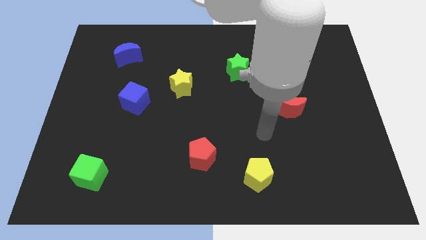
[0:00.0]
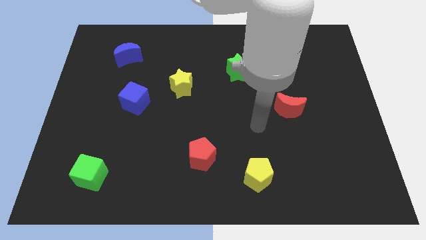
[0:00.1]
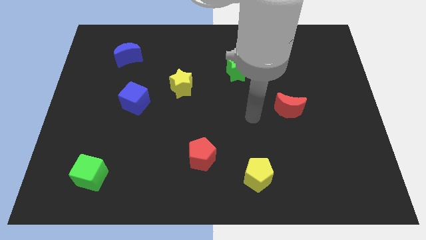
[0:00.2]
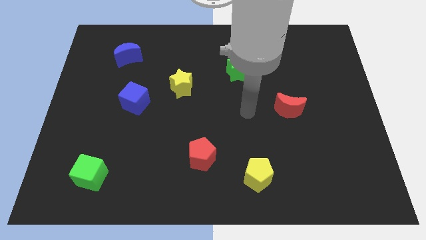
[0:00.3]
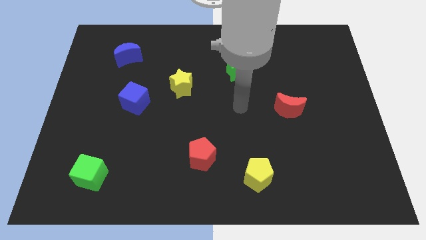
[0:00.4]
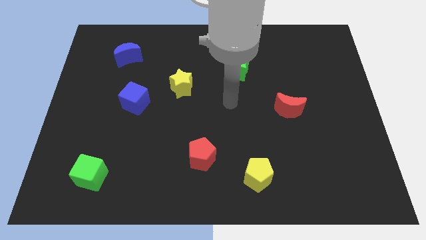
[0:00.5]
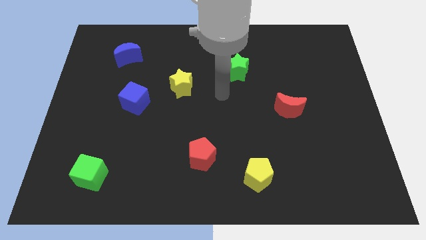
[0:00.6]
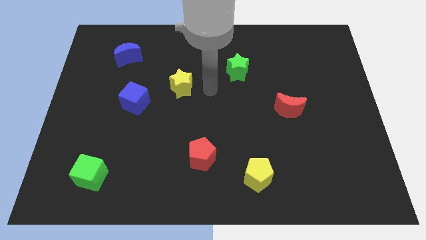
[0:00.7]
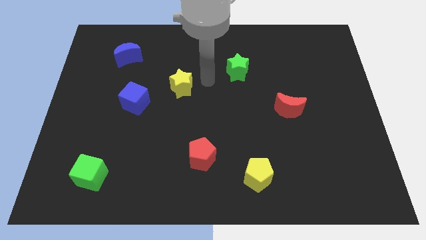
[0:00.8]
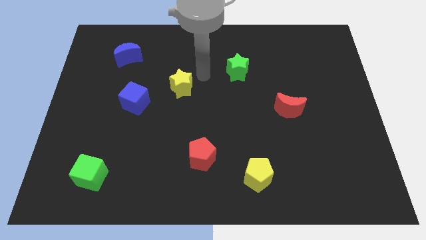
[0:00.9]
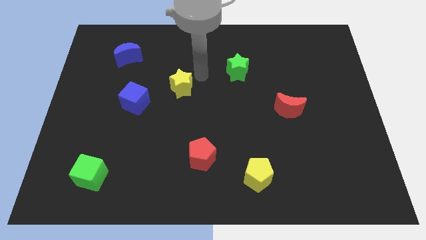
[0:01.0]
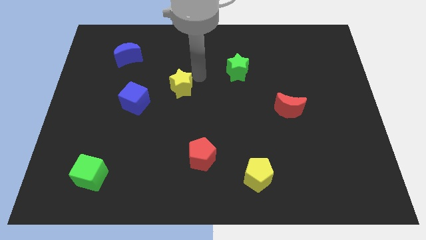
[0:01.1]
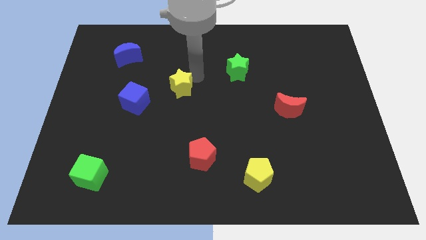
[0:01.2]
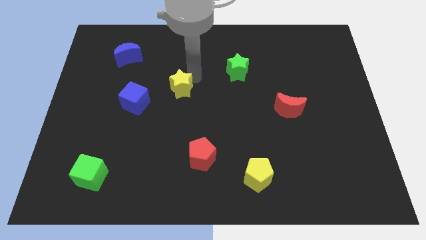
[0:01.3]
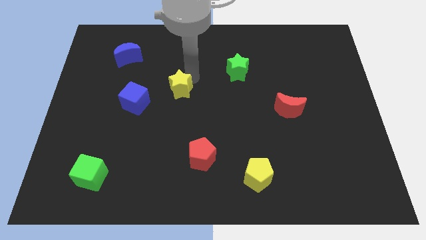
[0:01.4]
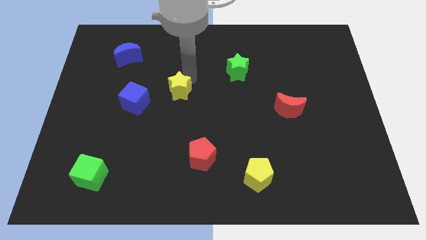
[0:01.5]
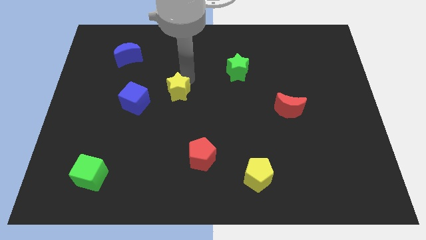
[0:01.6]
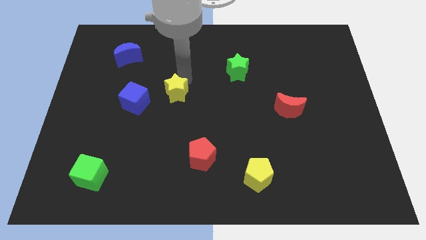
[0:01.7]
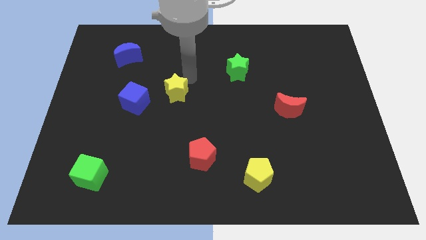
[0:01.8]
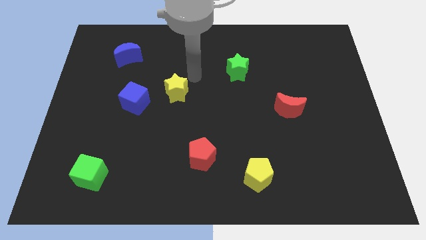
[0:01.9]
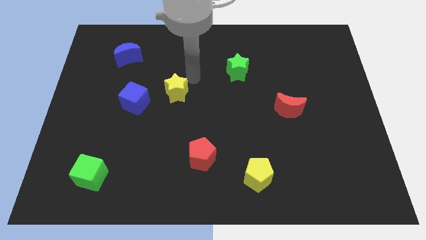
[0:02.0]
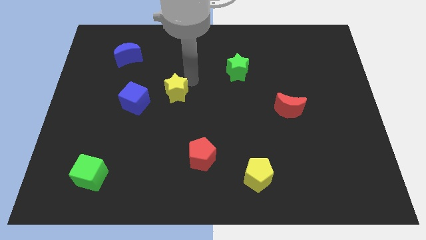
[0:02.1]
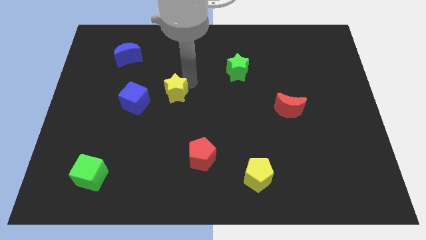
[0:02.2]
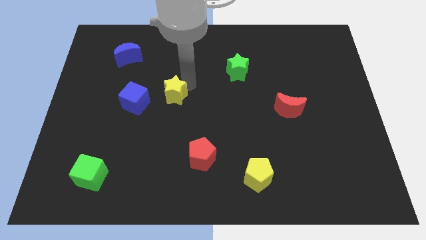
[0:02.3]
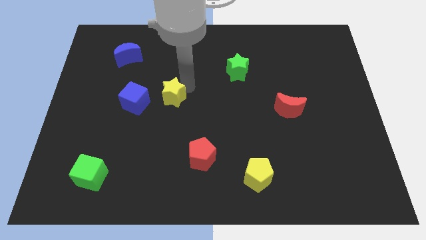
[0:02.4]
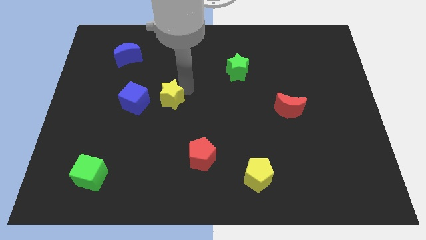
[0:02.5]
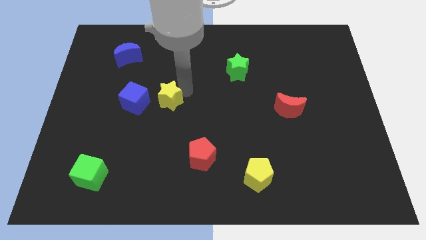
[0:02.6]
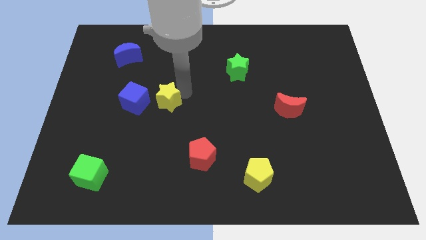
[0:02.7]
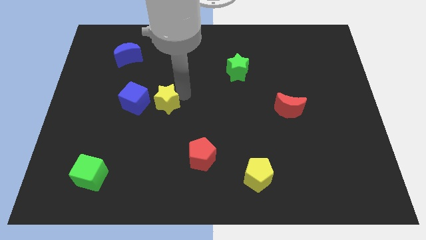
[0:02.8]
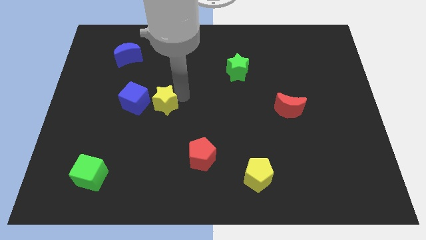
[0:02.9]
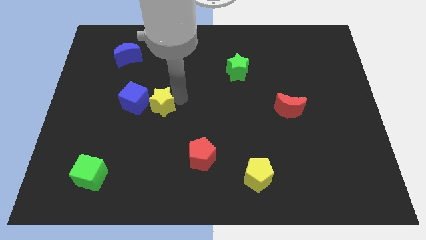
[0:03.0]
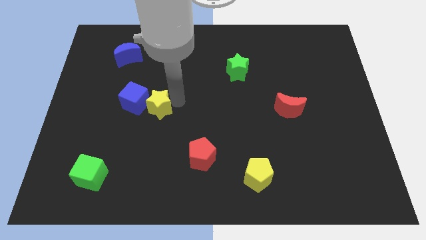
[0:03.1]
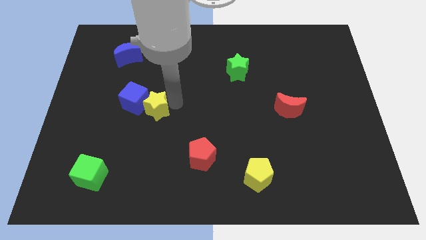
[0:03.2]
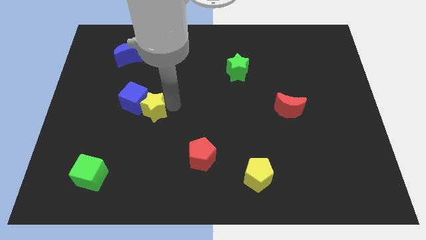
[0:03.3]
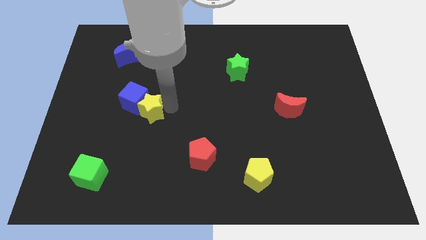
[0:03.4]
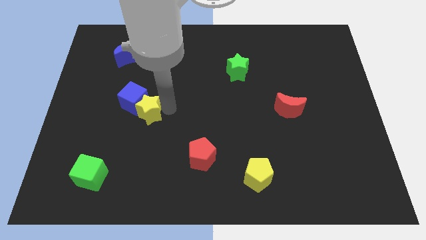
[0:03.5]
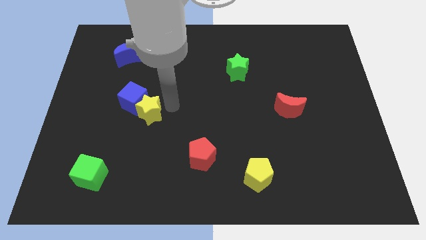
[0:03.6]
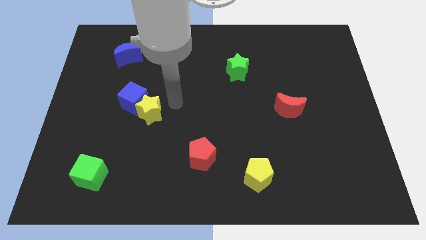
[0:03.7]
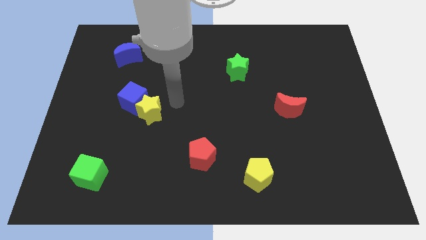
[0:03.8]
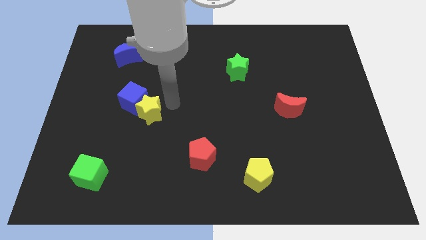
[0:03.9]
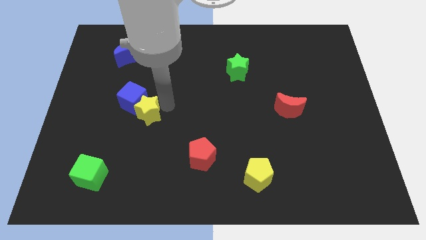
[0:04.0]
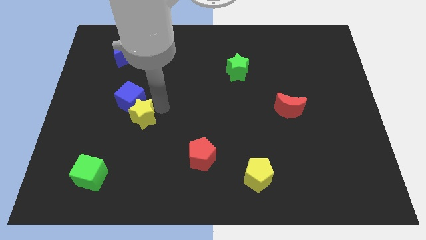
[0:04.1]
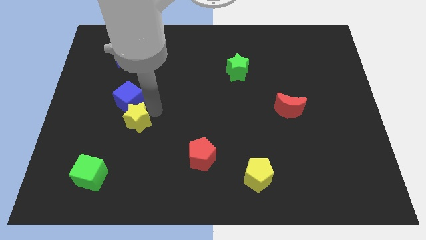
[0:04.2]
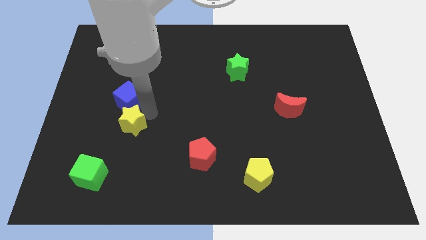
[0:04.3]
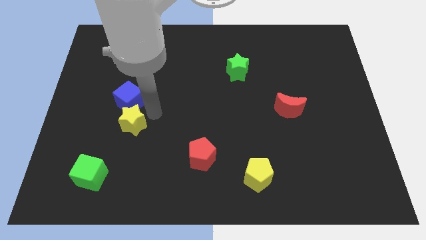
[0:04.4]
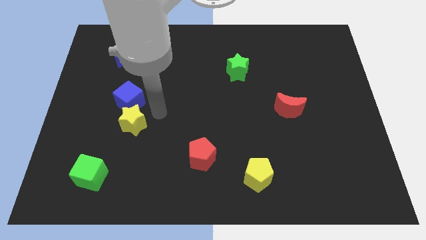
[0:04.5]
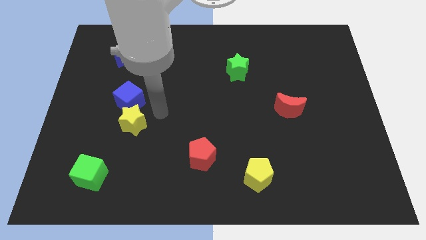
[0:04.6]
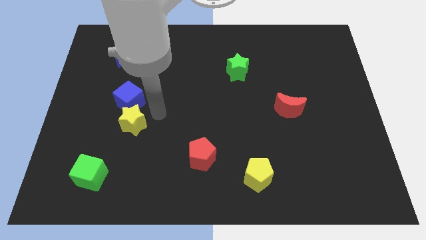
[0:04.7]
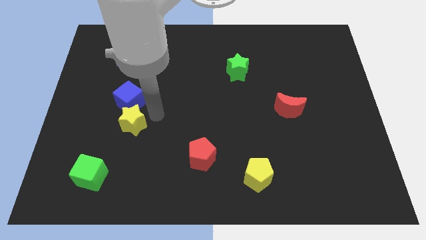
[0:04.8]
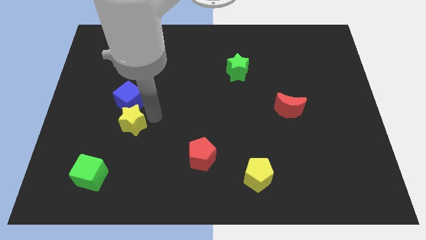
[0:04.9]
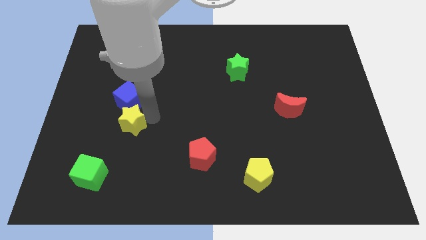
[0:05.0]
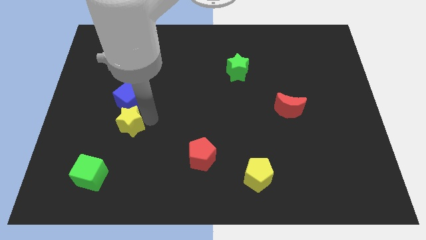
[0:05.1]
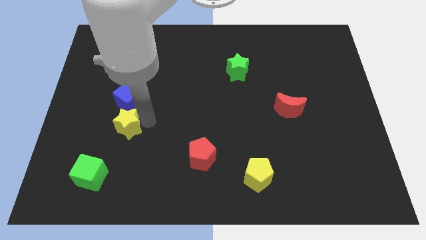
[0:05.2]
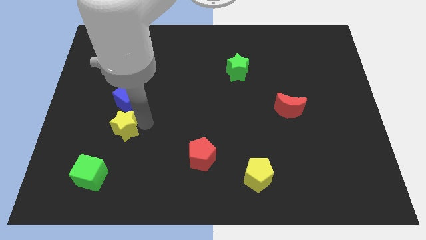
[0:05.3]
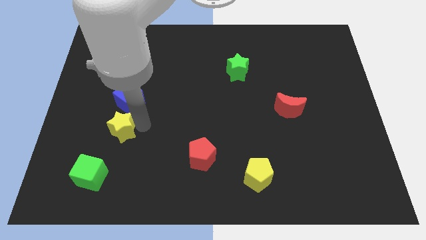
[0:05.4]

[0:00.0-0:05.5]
push the yellow star to the top side of the green cube

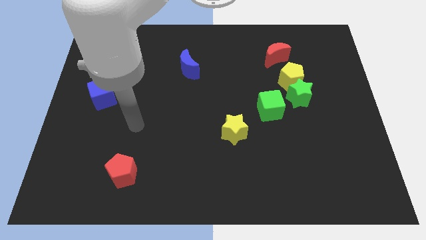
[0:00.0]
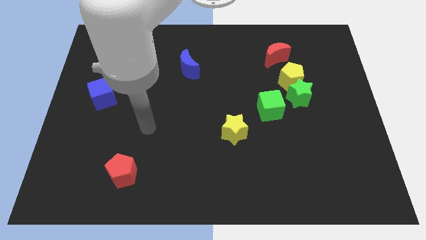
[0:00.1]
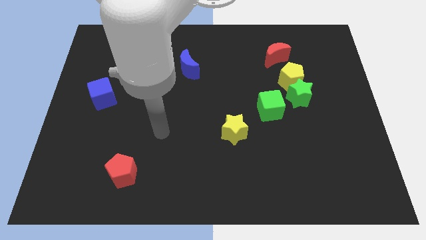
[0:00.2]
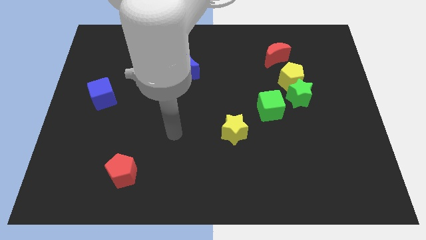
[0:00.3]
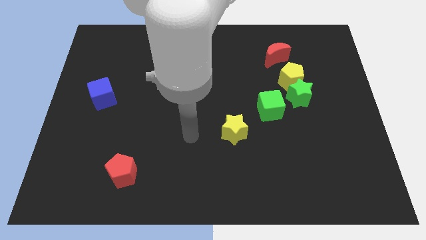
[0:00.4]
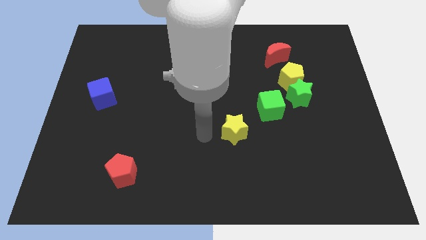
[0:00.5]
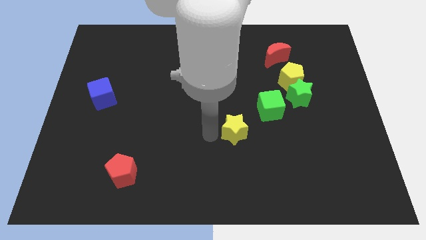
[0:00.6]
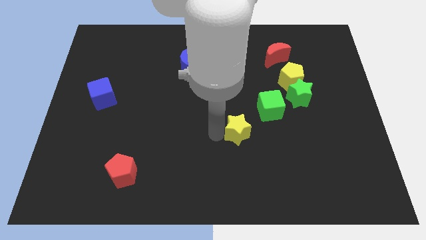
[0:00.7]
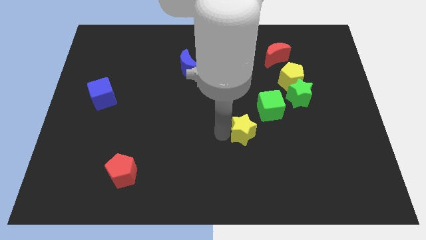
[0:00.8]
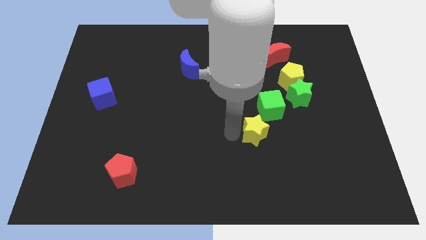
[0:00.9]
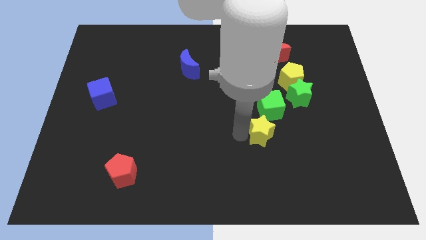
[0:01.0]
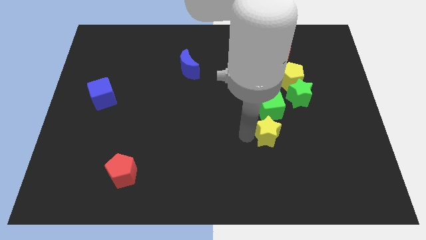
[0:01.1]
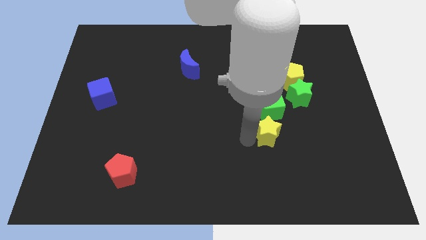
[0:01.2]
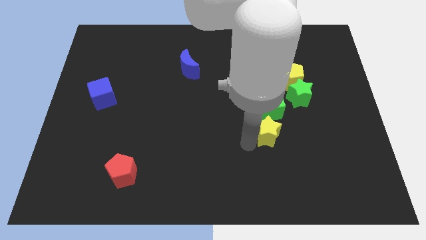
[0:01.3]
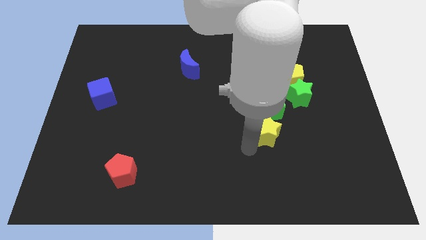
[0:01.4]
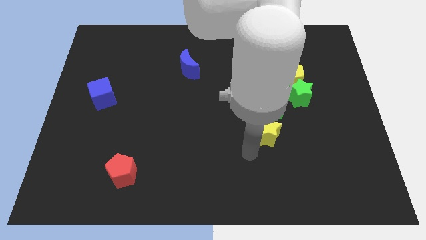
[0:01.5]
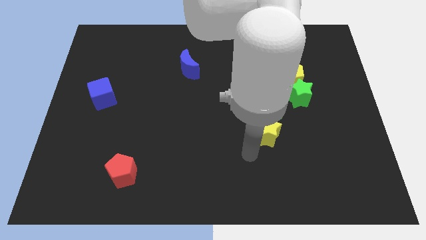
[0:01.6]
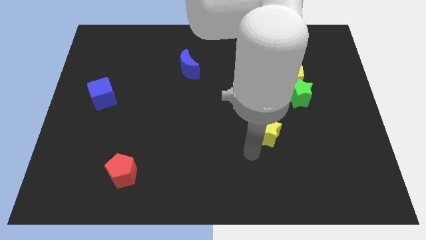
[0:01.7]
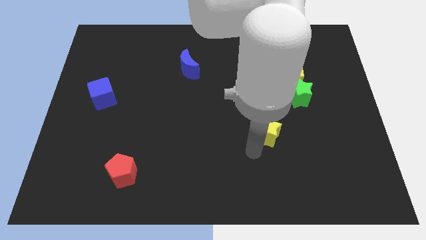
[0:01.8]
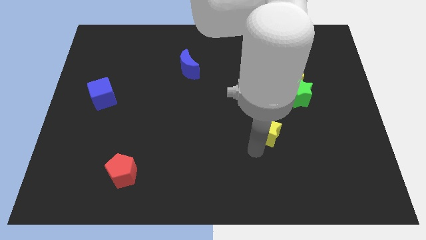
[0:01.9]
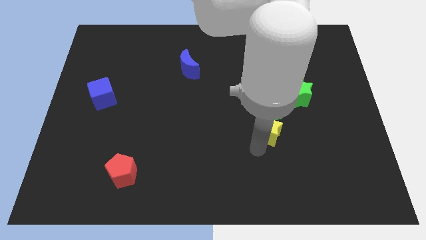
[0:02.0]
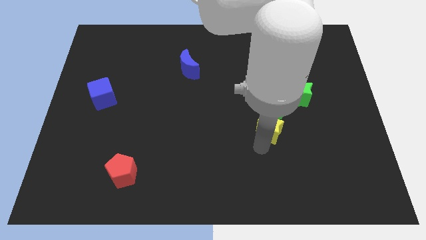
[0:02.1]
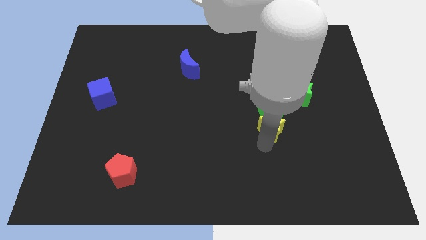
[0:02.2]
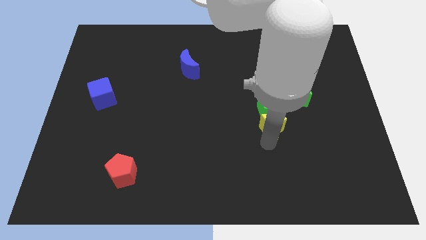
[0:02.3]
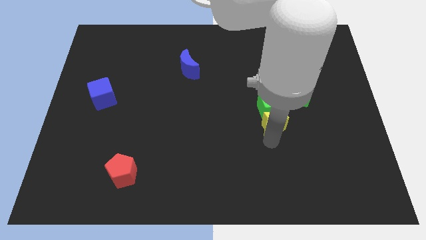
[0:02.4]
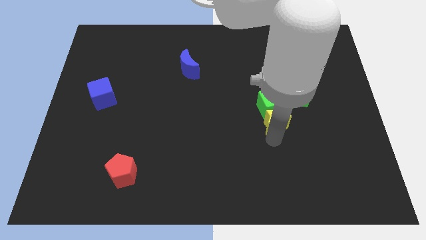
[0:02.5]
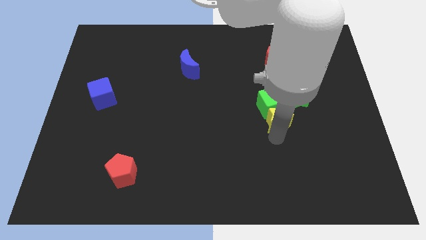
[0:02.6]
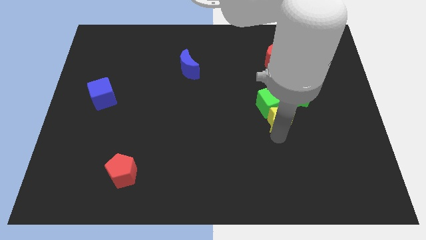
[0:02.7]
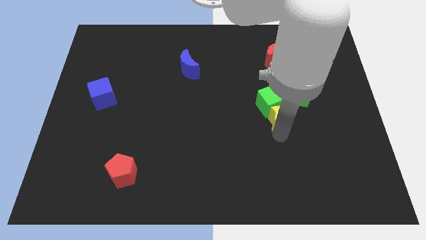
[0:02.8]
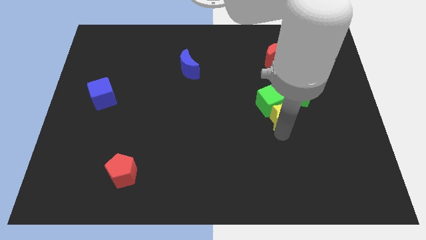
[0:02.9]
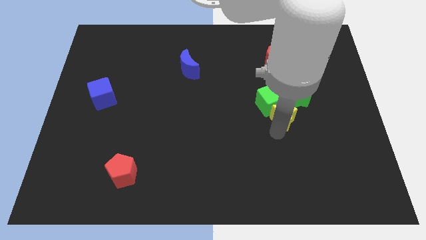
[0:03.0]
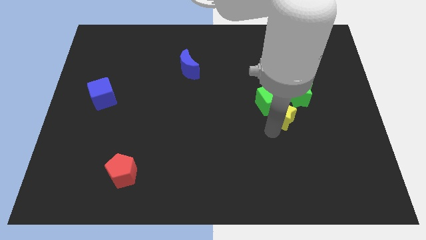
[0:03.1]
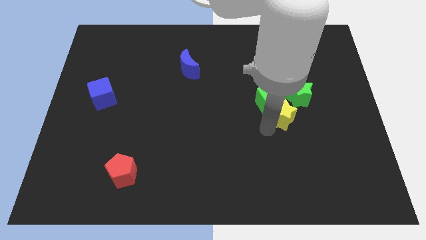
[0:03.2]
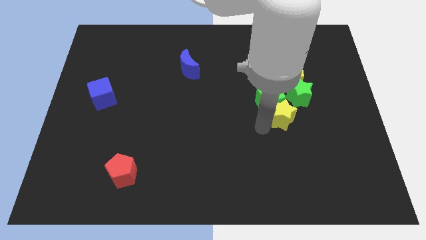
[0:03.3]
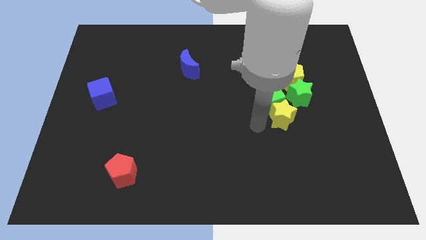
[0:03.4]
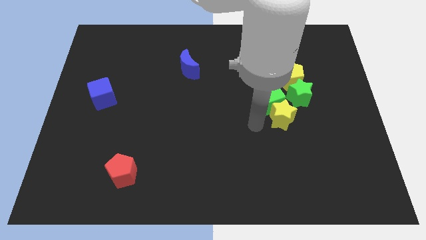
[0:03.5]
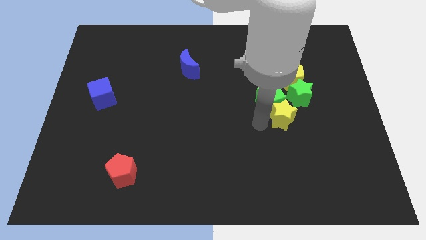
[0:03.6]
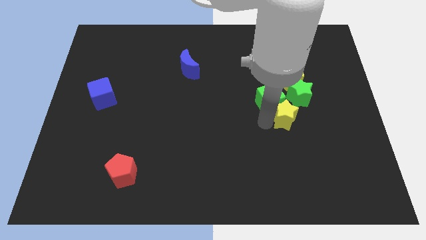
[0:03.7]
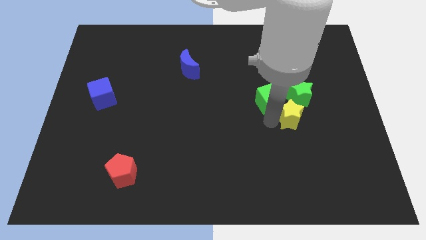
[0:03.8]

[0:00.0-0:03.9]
push the yellow star to the right of the green cube
